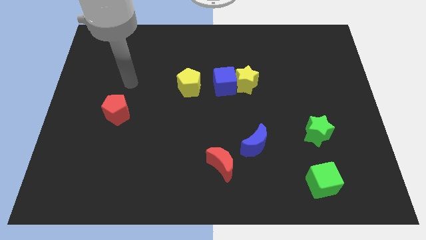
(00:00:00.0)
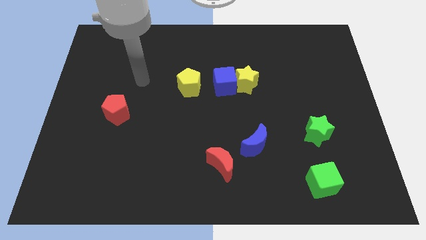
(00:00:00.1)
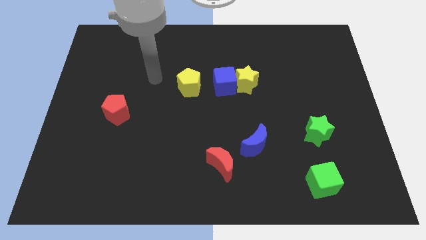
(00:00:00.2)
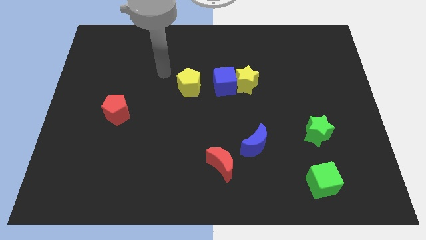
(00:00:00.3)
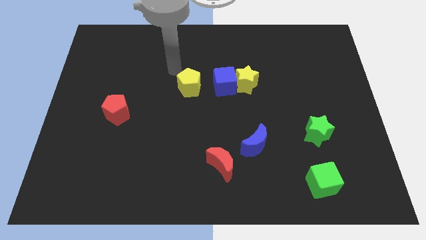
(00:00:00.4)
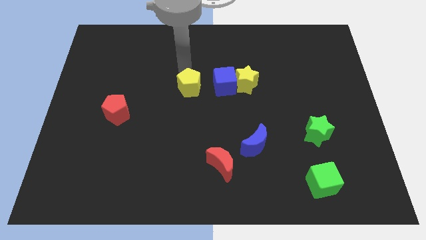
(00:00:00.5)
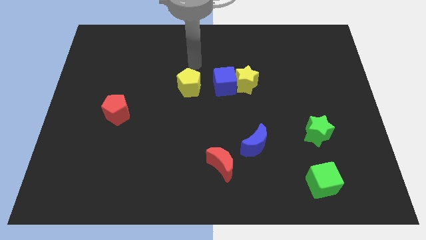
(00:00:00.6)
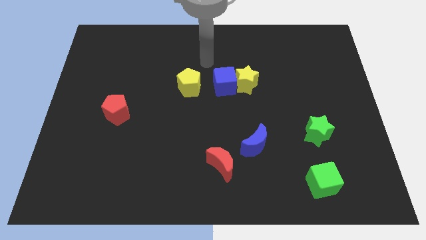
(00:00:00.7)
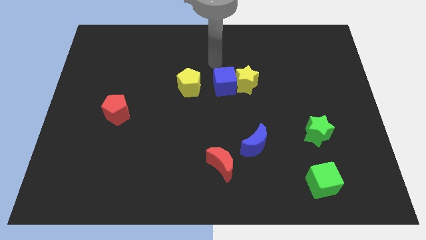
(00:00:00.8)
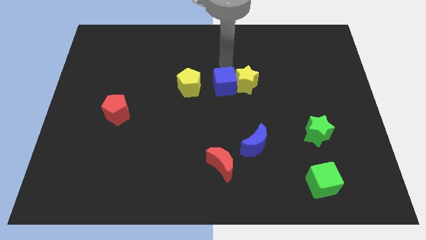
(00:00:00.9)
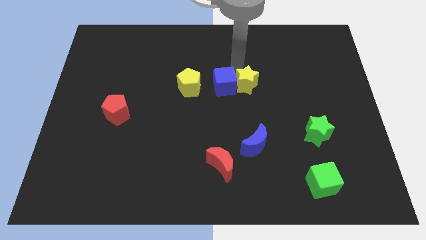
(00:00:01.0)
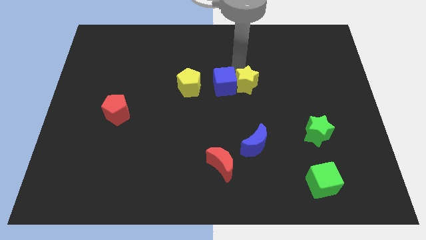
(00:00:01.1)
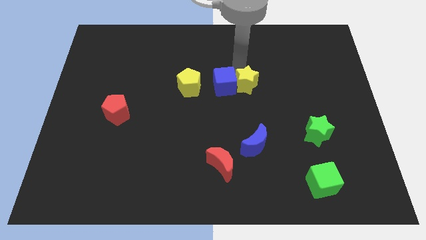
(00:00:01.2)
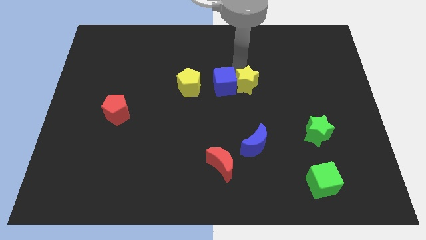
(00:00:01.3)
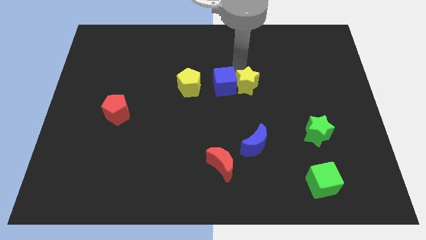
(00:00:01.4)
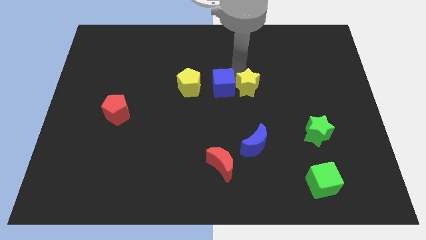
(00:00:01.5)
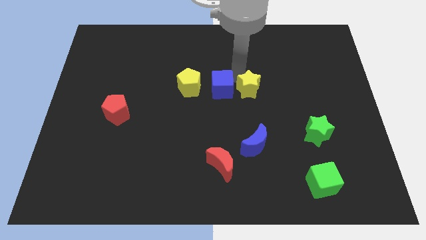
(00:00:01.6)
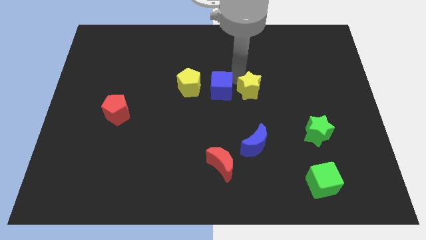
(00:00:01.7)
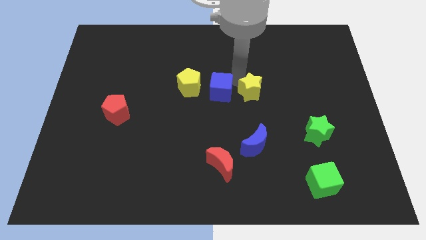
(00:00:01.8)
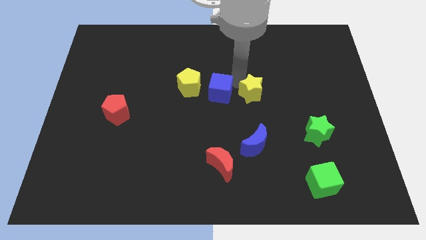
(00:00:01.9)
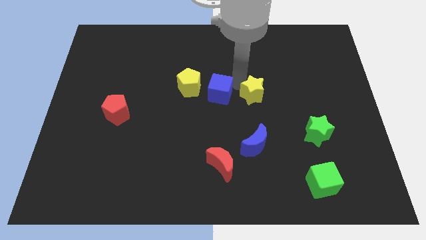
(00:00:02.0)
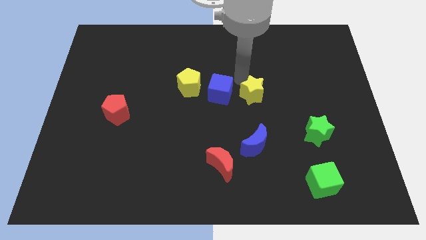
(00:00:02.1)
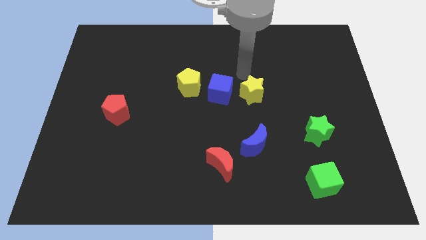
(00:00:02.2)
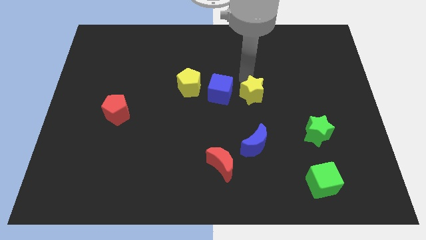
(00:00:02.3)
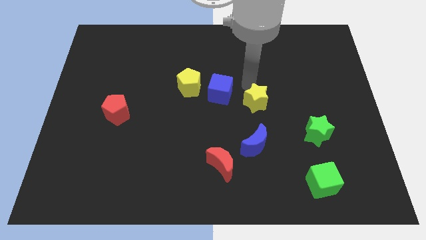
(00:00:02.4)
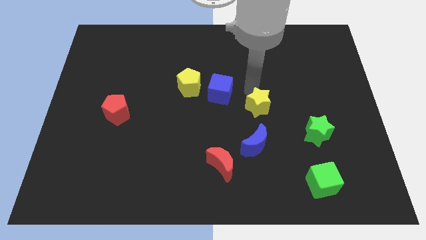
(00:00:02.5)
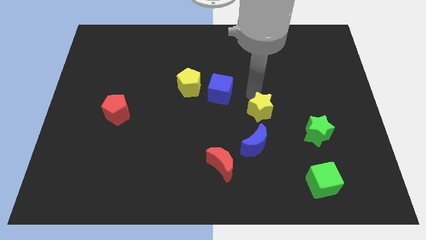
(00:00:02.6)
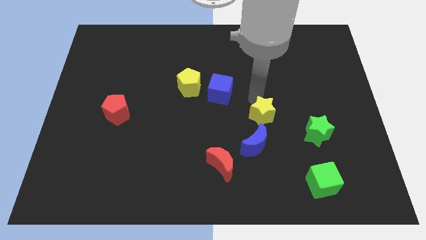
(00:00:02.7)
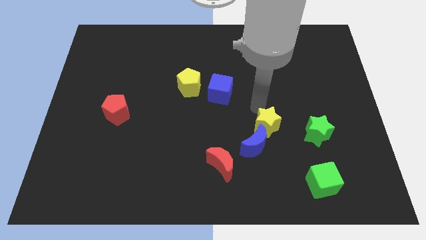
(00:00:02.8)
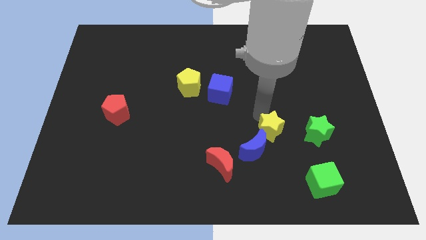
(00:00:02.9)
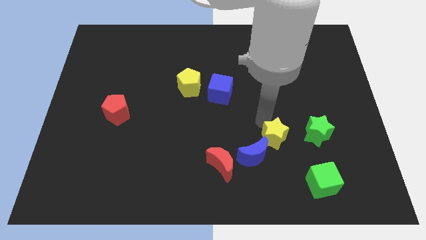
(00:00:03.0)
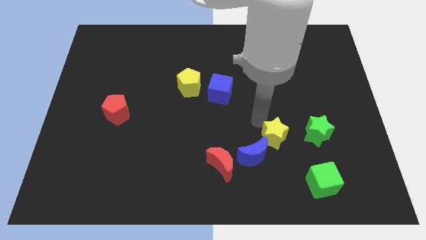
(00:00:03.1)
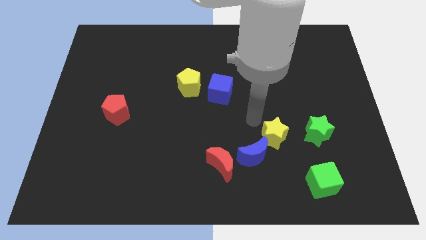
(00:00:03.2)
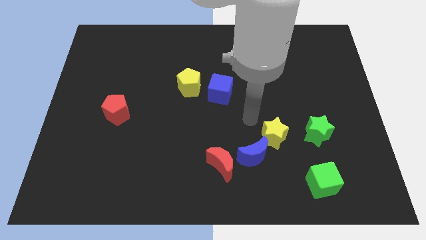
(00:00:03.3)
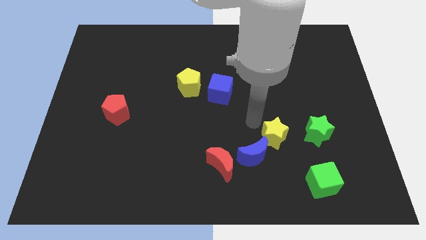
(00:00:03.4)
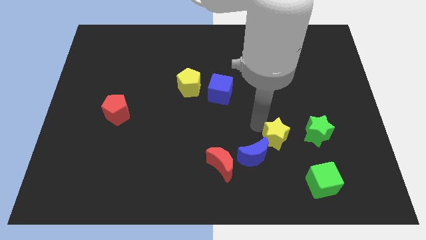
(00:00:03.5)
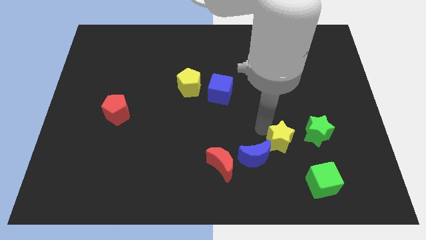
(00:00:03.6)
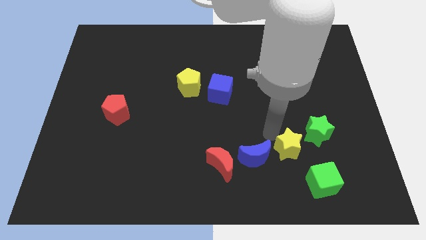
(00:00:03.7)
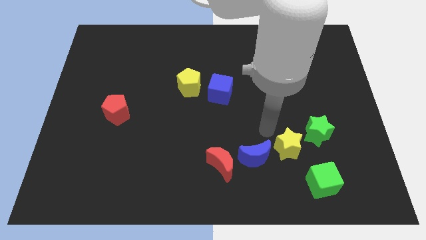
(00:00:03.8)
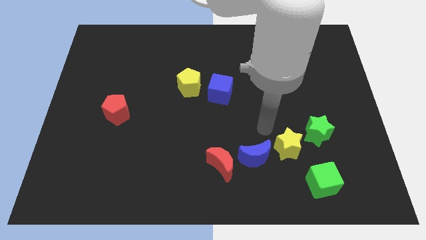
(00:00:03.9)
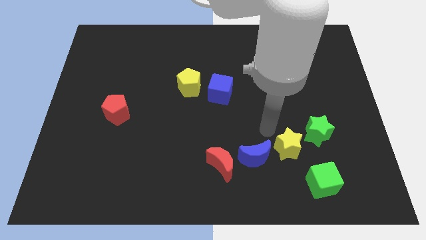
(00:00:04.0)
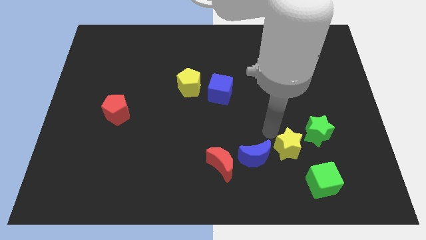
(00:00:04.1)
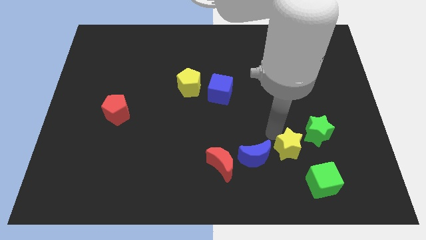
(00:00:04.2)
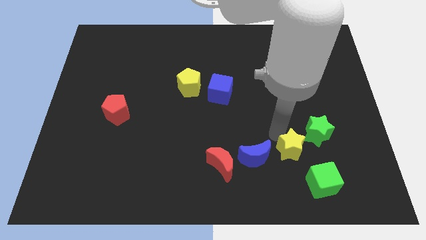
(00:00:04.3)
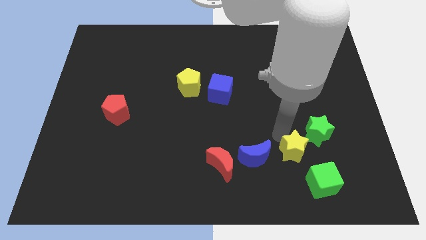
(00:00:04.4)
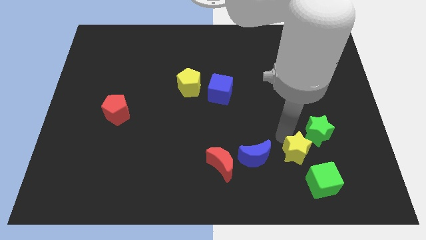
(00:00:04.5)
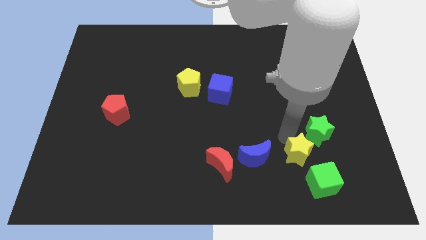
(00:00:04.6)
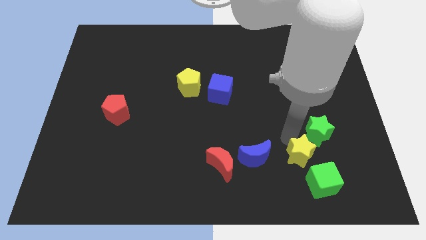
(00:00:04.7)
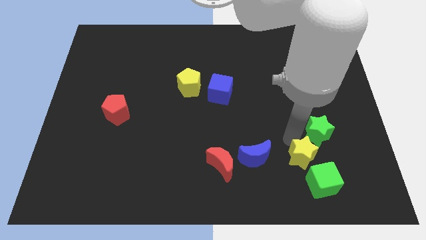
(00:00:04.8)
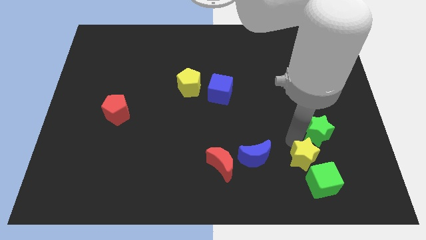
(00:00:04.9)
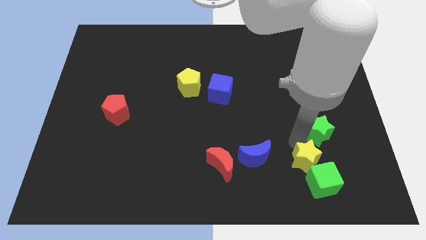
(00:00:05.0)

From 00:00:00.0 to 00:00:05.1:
slide the yellow star to the green cube

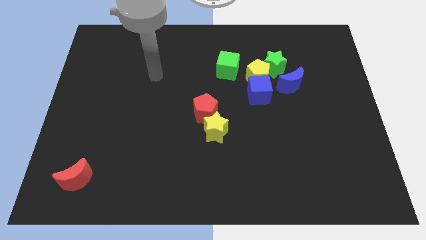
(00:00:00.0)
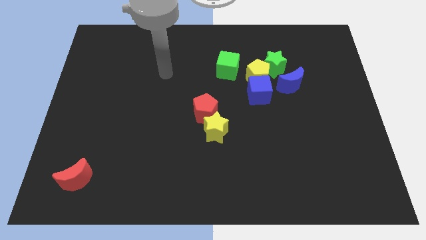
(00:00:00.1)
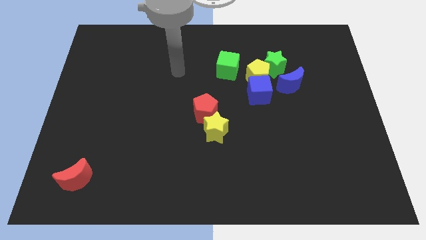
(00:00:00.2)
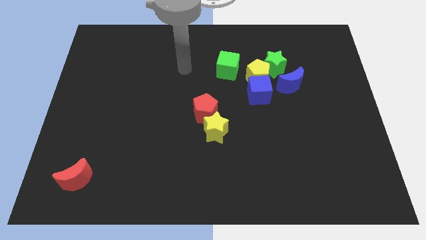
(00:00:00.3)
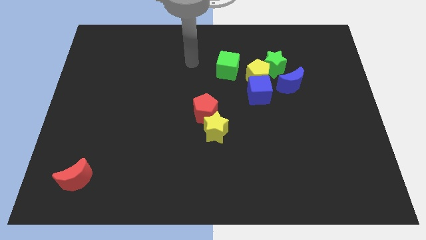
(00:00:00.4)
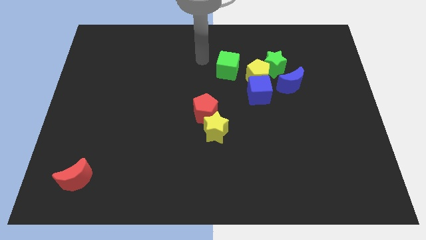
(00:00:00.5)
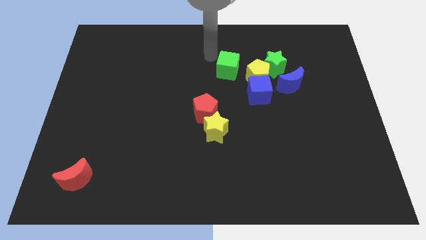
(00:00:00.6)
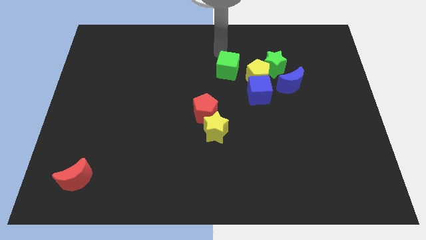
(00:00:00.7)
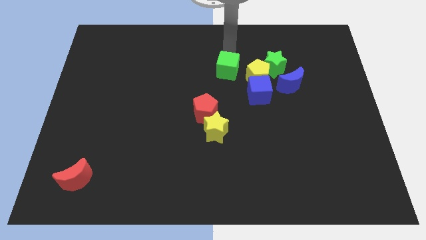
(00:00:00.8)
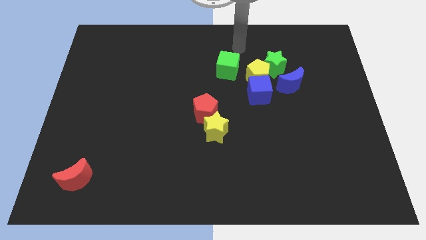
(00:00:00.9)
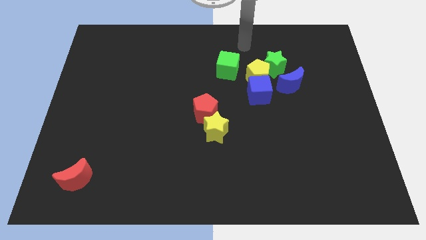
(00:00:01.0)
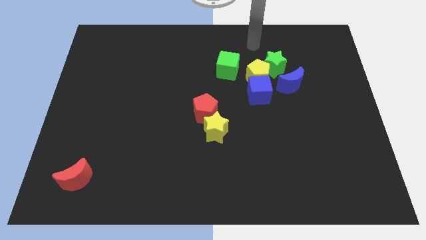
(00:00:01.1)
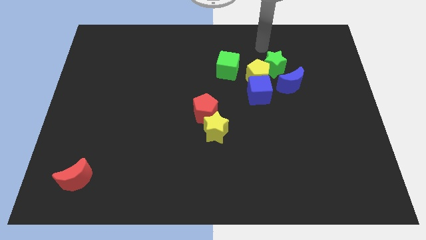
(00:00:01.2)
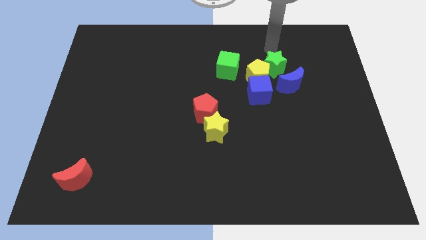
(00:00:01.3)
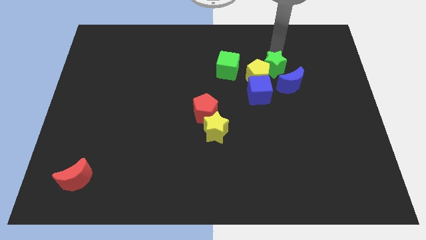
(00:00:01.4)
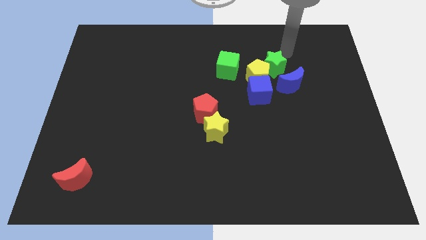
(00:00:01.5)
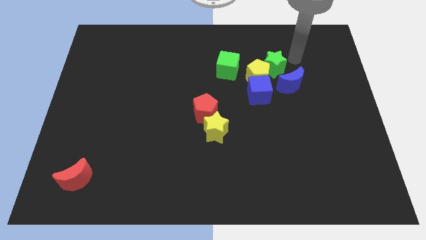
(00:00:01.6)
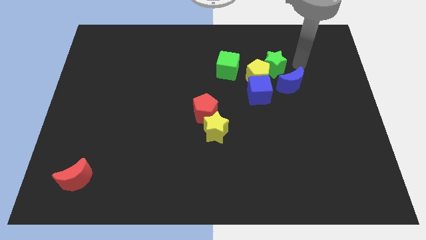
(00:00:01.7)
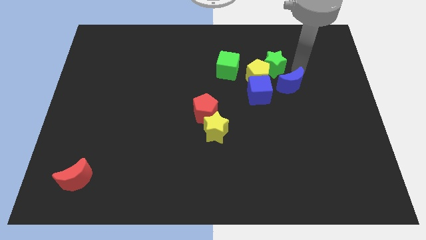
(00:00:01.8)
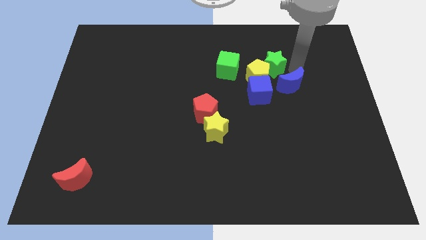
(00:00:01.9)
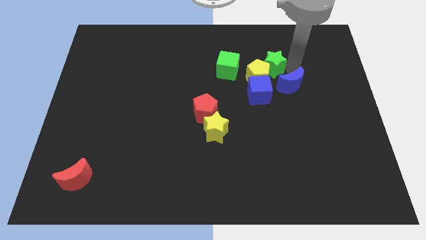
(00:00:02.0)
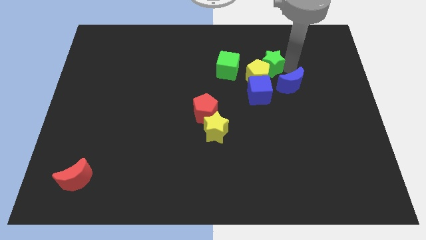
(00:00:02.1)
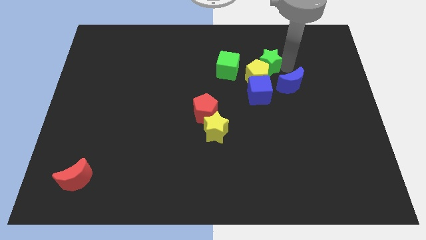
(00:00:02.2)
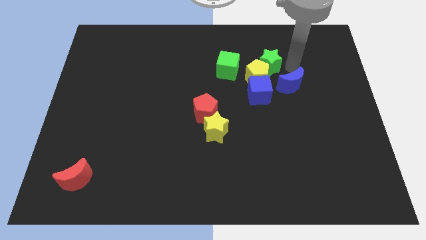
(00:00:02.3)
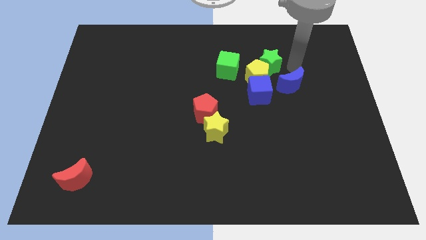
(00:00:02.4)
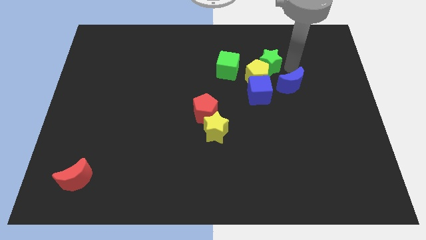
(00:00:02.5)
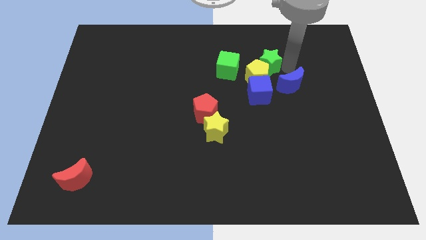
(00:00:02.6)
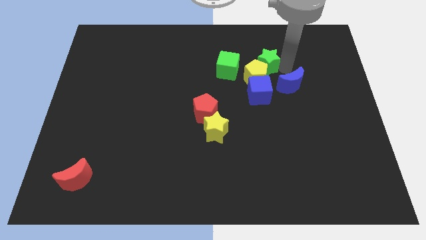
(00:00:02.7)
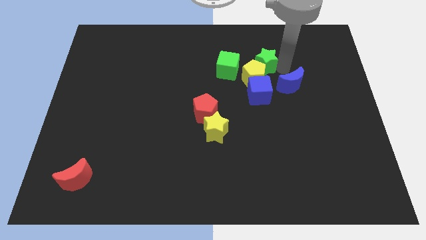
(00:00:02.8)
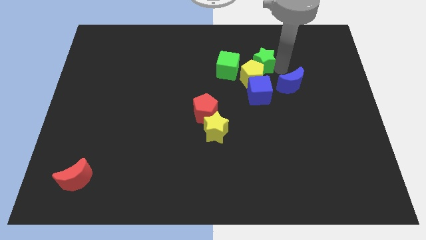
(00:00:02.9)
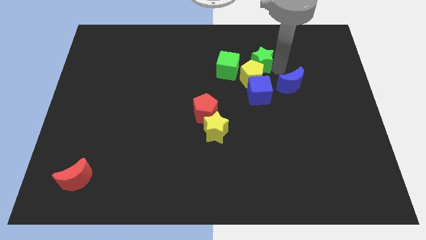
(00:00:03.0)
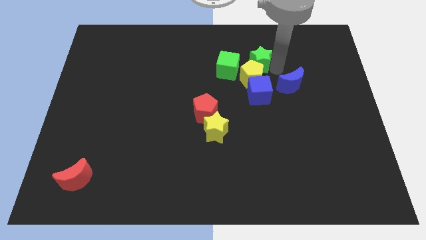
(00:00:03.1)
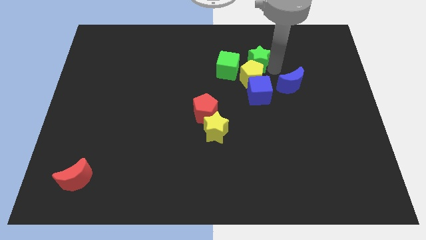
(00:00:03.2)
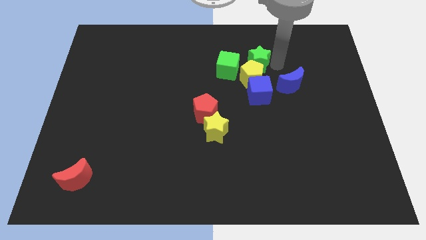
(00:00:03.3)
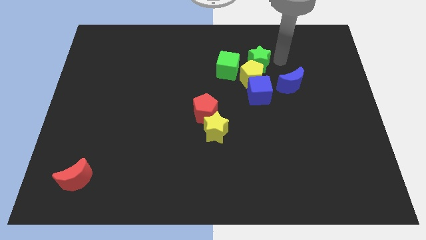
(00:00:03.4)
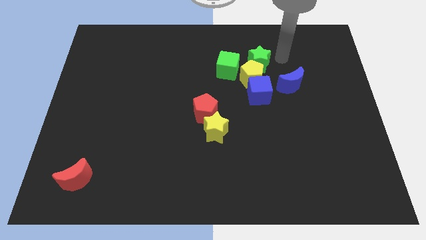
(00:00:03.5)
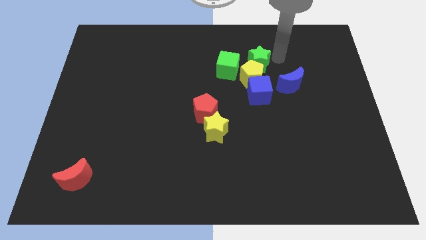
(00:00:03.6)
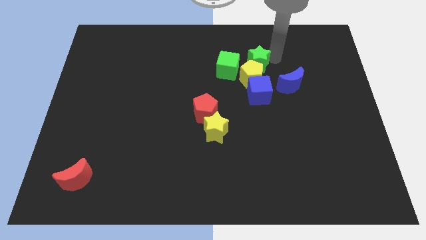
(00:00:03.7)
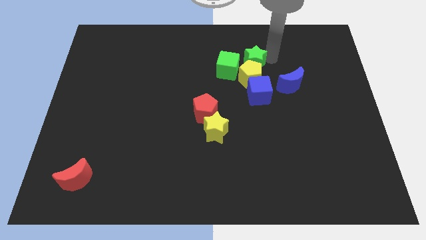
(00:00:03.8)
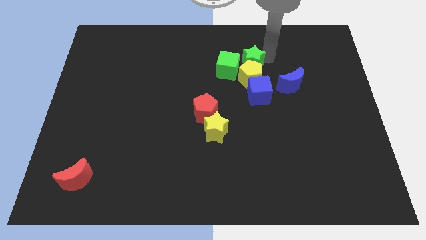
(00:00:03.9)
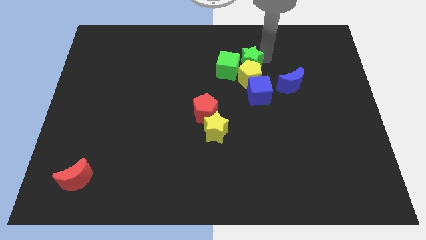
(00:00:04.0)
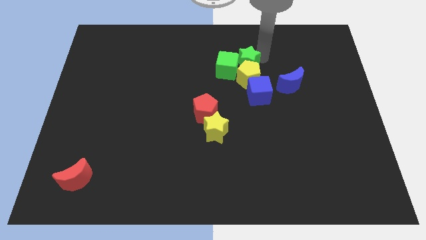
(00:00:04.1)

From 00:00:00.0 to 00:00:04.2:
move the green star towards the green cube
